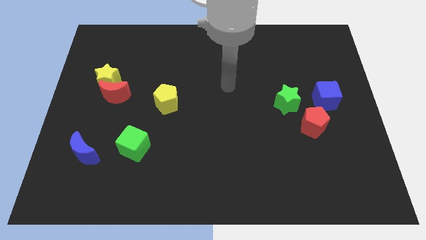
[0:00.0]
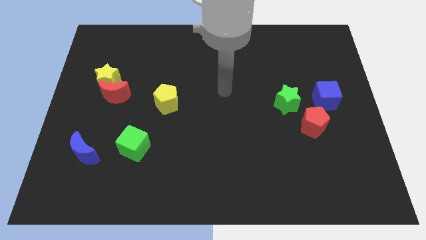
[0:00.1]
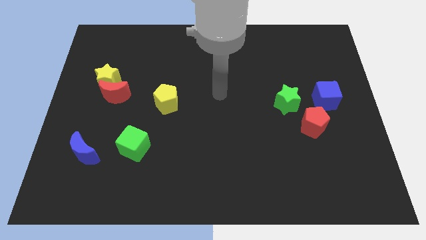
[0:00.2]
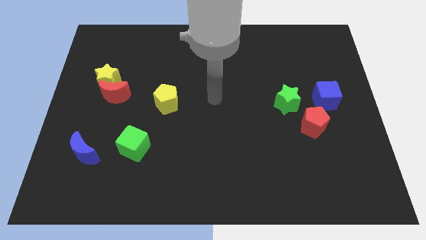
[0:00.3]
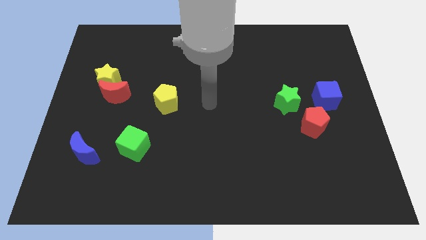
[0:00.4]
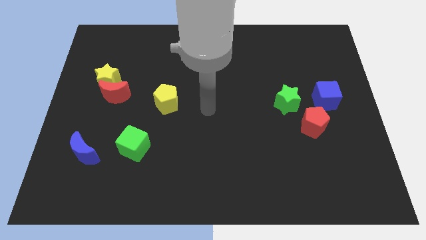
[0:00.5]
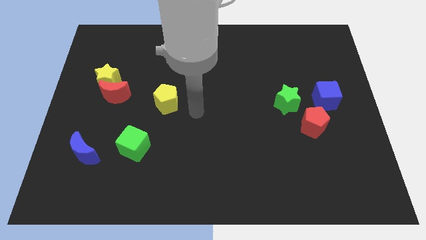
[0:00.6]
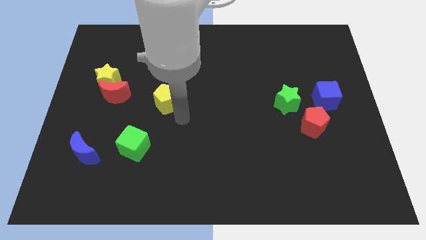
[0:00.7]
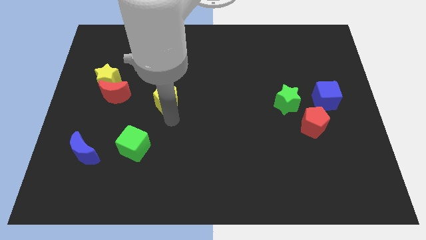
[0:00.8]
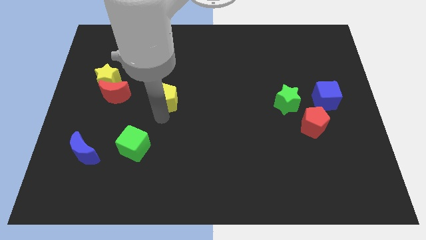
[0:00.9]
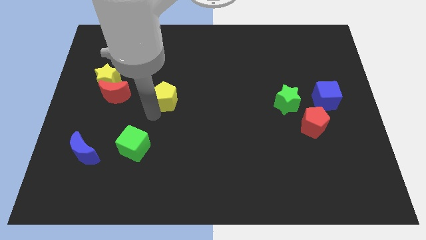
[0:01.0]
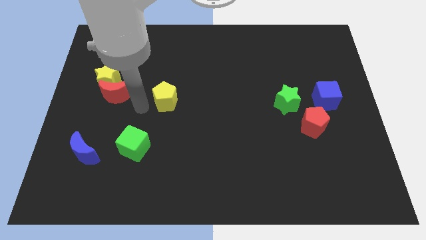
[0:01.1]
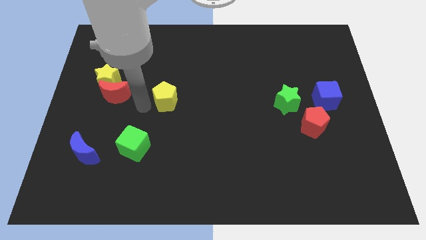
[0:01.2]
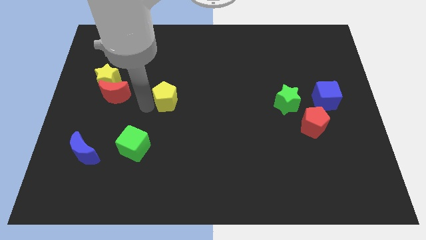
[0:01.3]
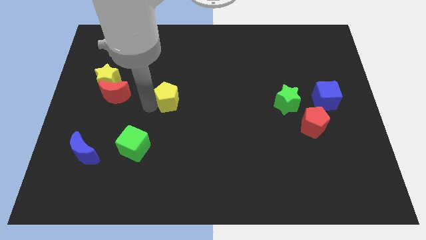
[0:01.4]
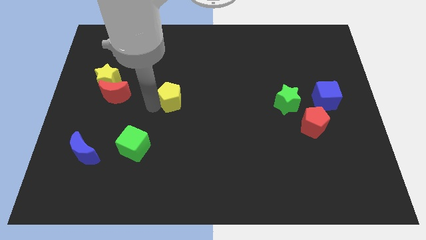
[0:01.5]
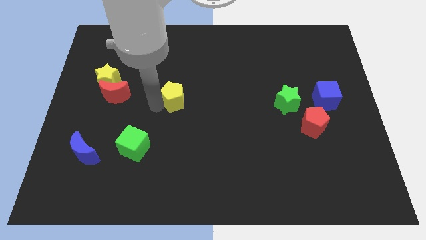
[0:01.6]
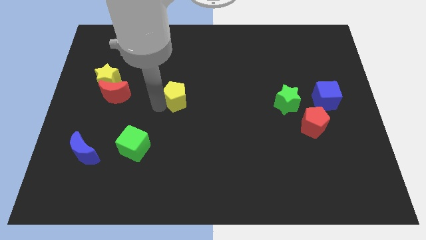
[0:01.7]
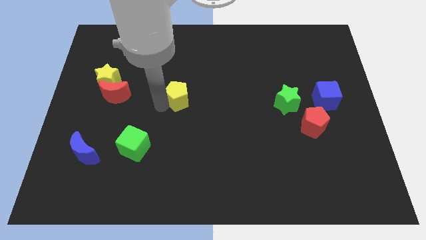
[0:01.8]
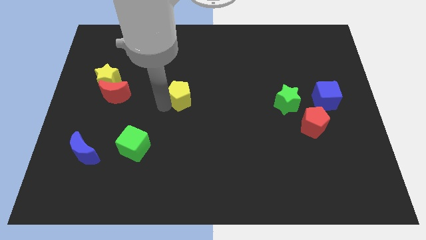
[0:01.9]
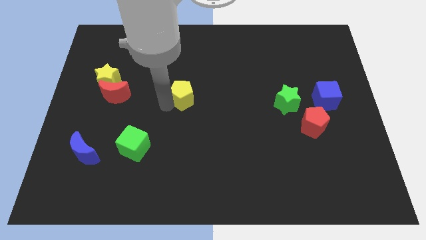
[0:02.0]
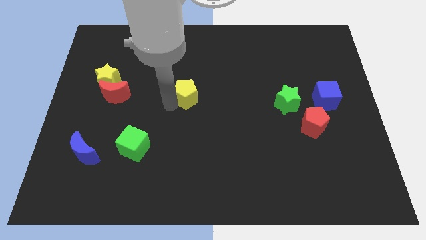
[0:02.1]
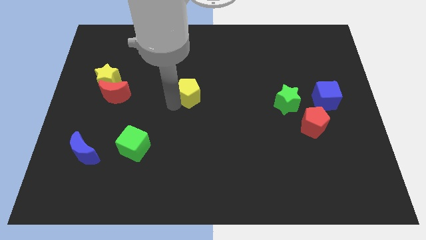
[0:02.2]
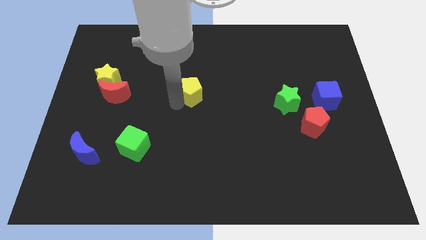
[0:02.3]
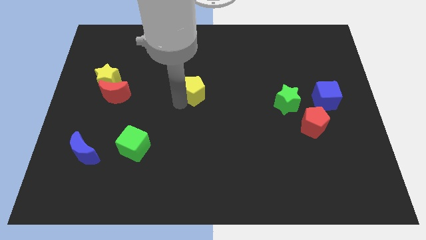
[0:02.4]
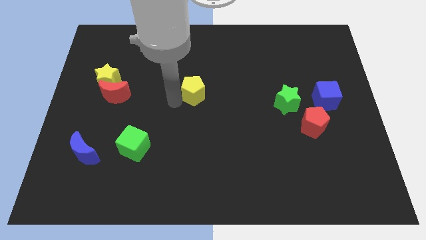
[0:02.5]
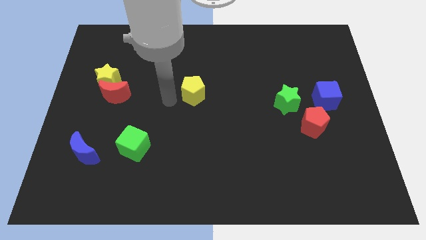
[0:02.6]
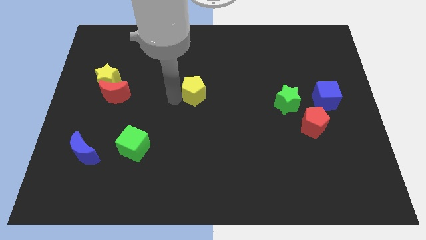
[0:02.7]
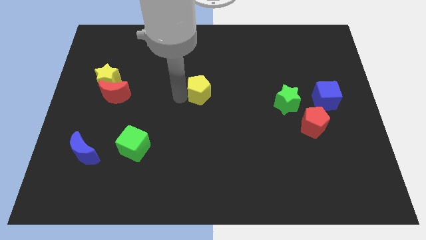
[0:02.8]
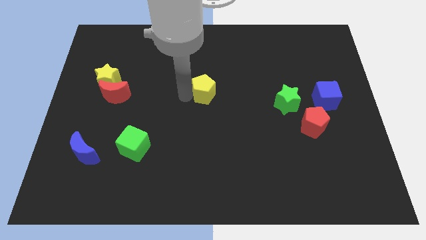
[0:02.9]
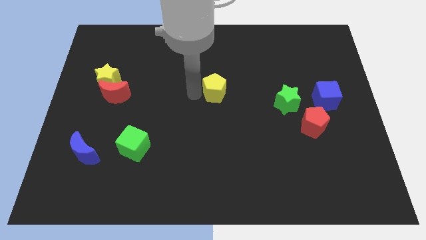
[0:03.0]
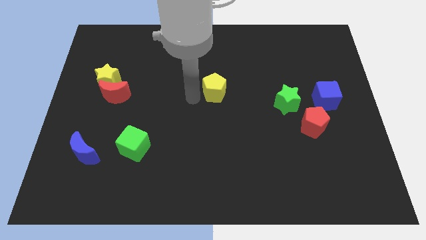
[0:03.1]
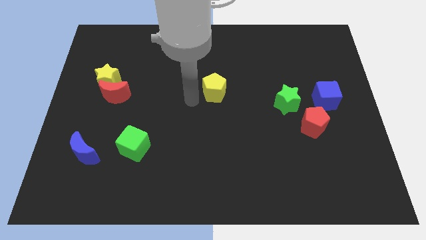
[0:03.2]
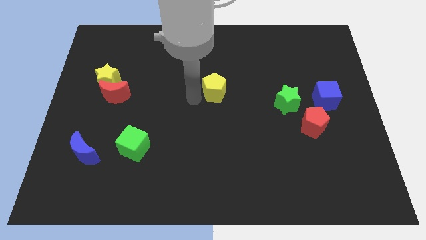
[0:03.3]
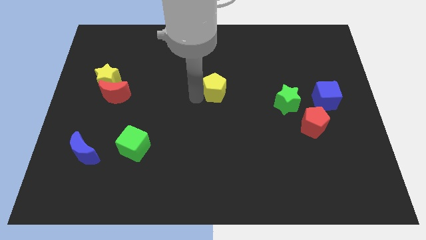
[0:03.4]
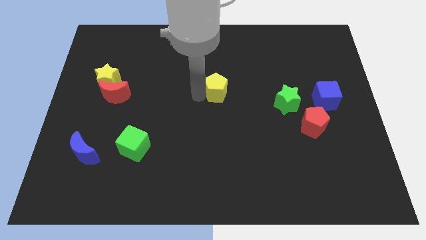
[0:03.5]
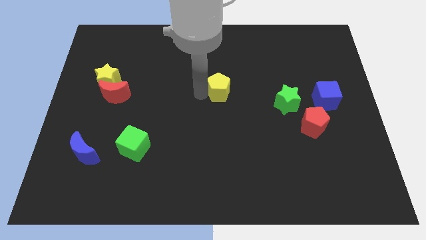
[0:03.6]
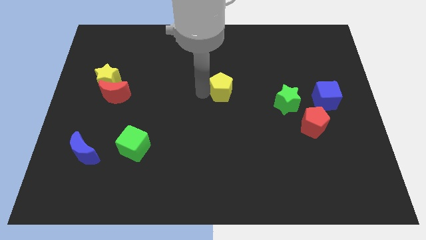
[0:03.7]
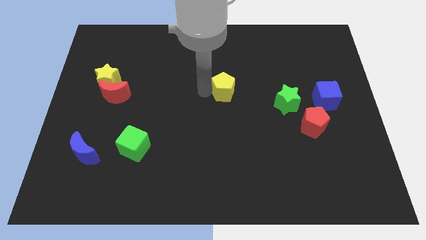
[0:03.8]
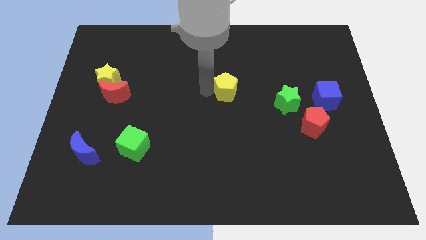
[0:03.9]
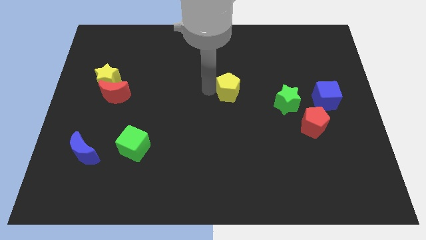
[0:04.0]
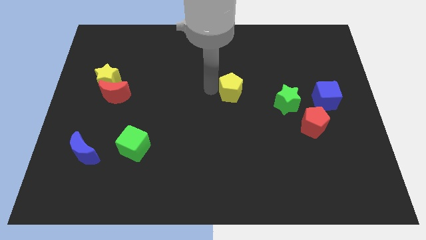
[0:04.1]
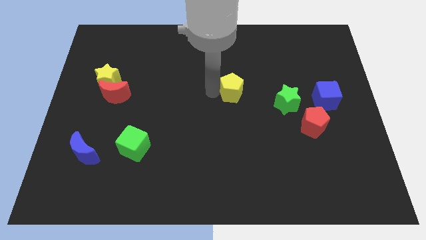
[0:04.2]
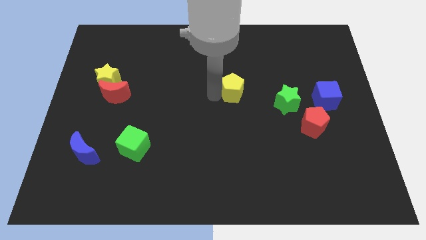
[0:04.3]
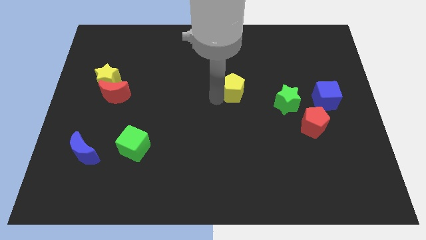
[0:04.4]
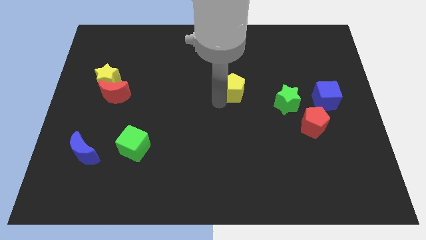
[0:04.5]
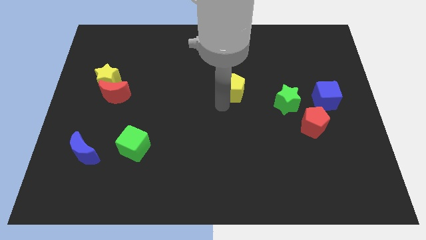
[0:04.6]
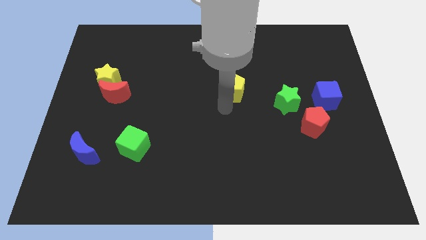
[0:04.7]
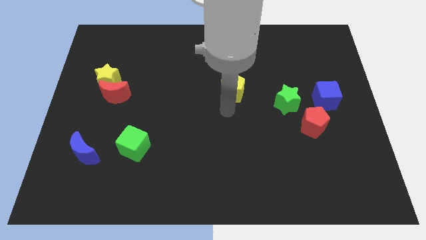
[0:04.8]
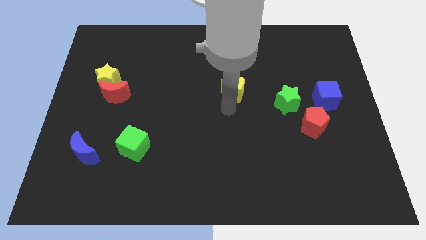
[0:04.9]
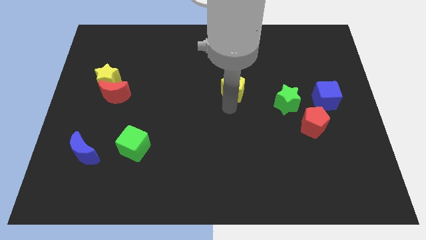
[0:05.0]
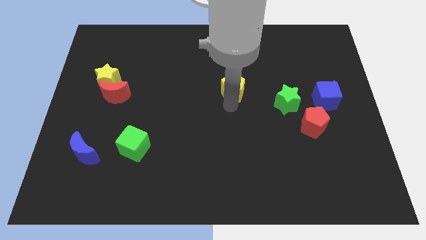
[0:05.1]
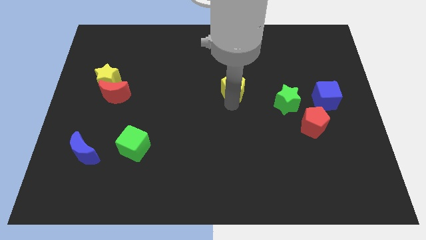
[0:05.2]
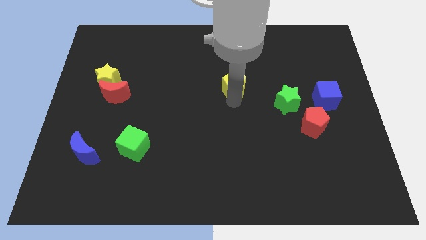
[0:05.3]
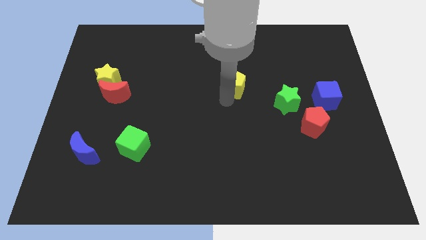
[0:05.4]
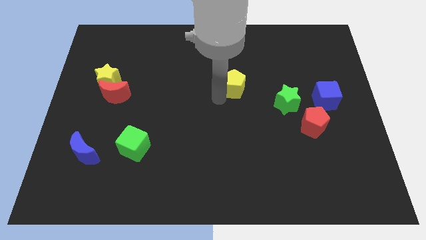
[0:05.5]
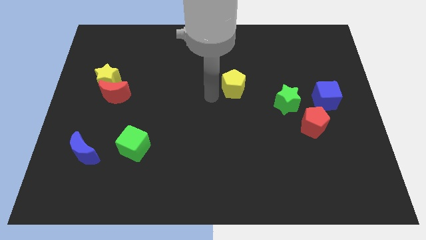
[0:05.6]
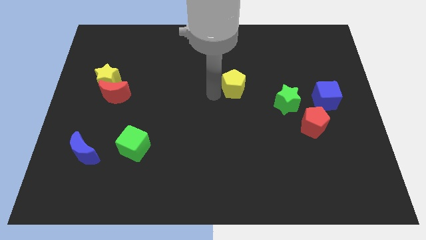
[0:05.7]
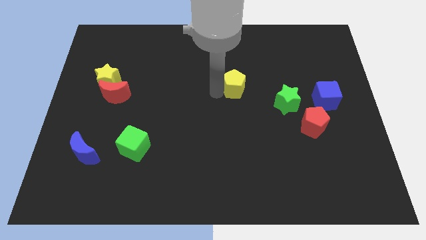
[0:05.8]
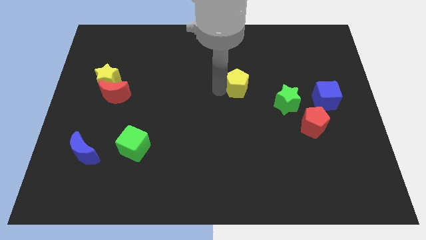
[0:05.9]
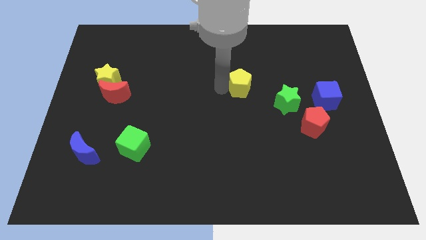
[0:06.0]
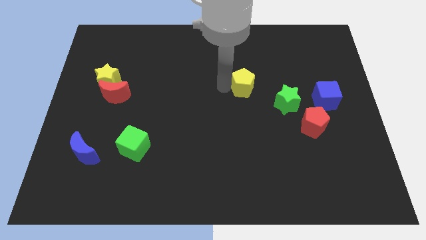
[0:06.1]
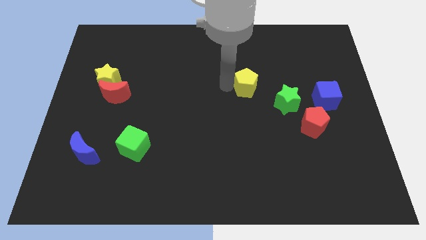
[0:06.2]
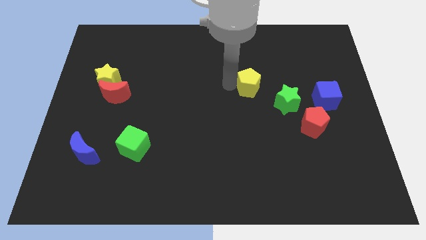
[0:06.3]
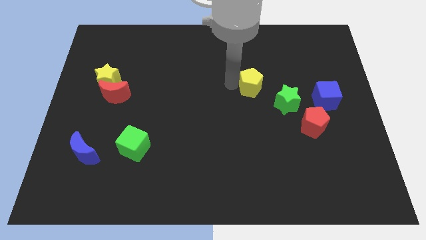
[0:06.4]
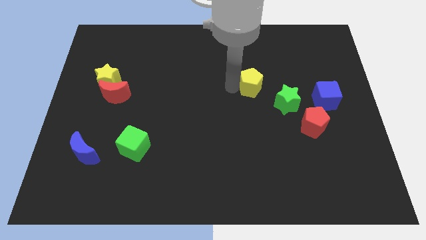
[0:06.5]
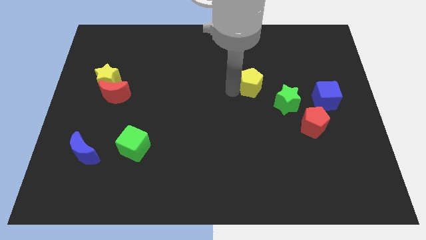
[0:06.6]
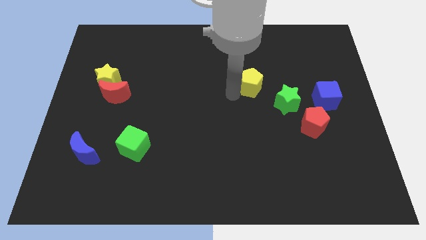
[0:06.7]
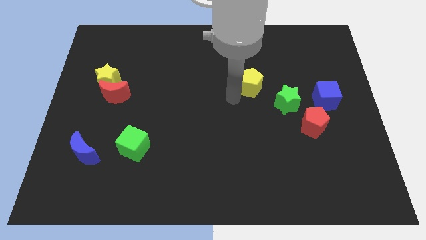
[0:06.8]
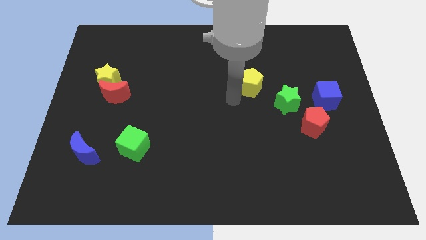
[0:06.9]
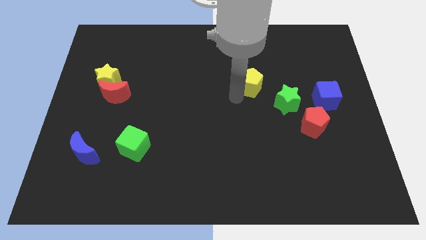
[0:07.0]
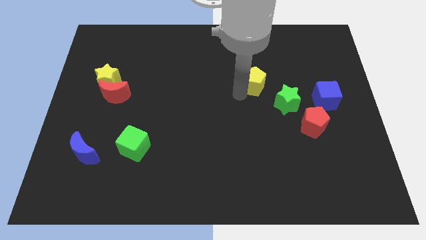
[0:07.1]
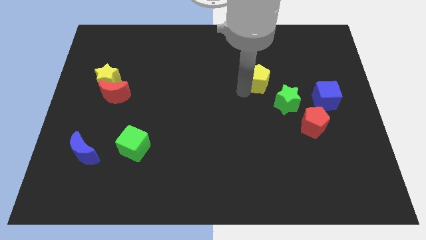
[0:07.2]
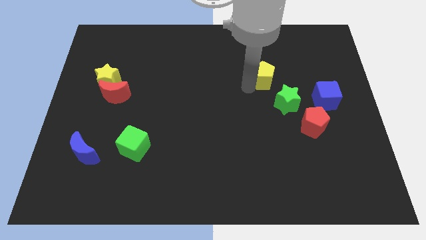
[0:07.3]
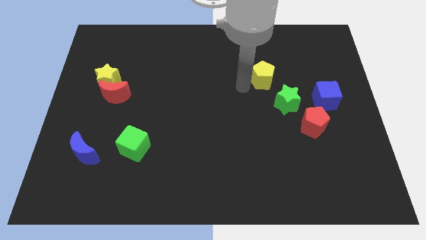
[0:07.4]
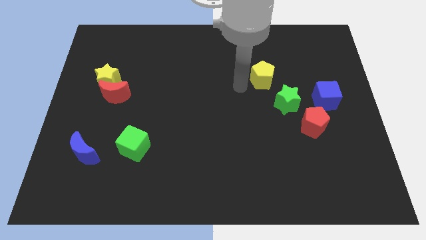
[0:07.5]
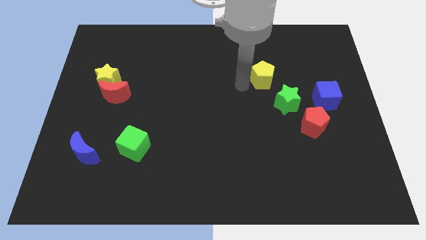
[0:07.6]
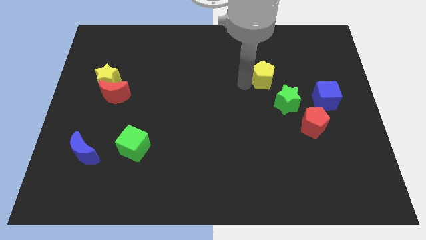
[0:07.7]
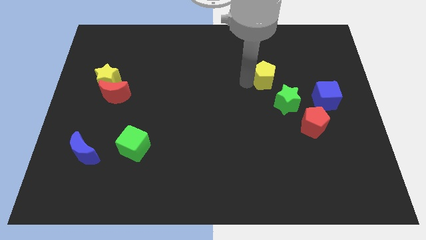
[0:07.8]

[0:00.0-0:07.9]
move the yellow pentagon to the top of the green star
